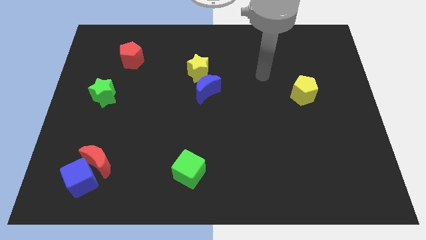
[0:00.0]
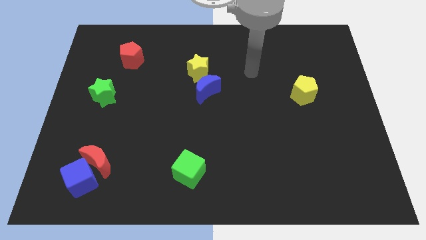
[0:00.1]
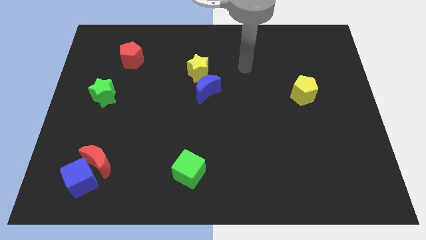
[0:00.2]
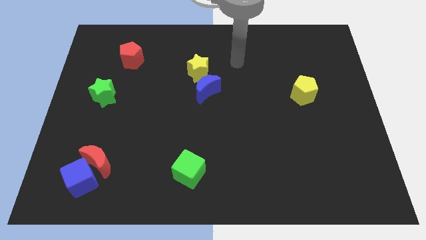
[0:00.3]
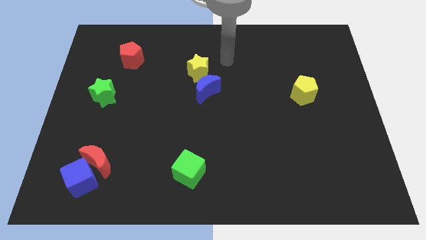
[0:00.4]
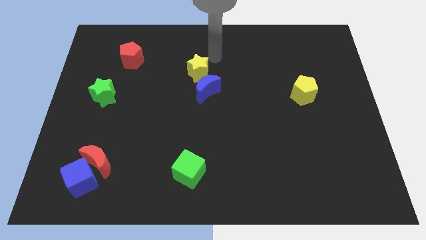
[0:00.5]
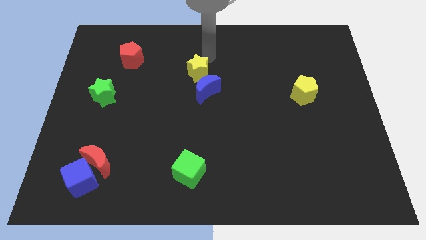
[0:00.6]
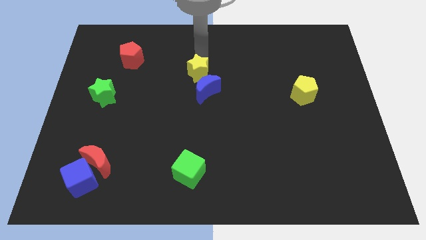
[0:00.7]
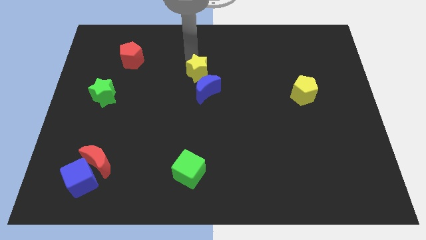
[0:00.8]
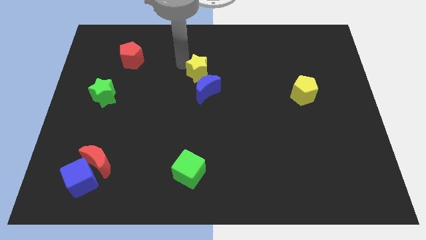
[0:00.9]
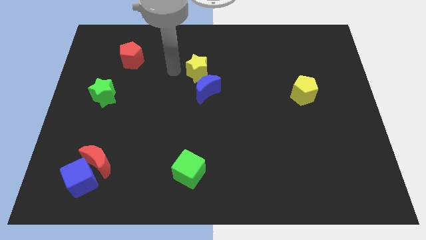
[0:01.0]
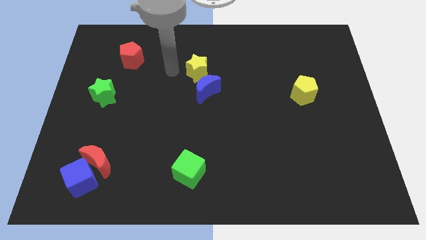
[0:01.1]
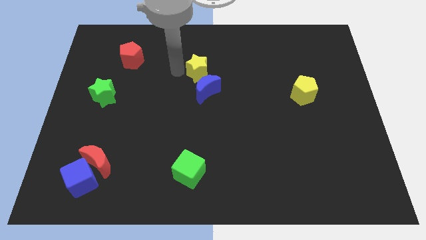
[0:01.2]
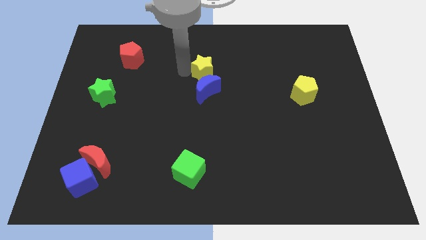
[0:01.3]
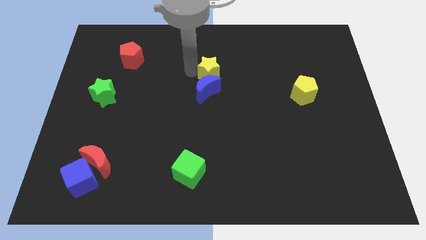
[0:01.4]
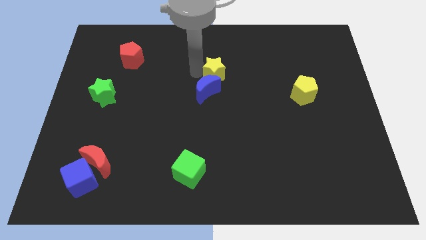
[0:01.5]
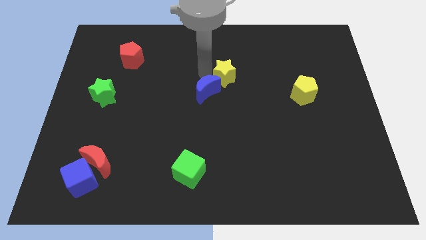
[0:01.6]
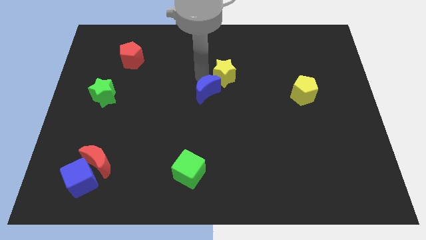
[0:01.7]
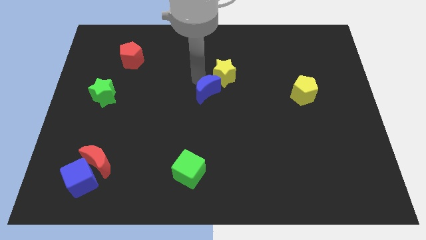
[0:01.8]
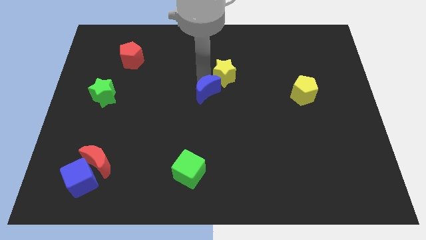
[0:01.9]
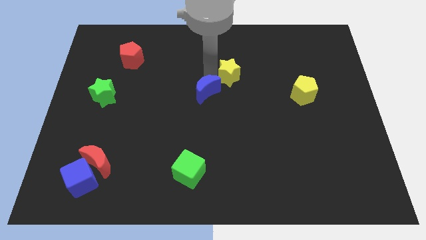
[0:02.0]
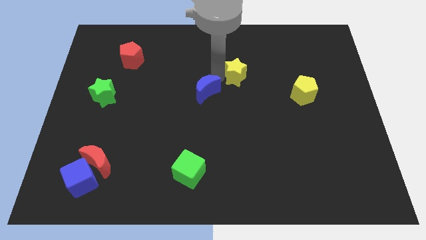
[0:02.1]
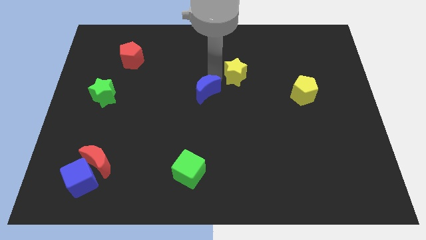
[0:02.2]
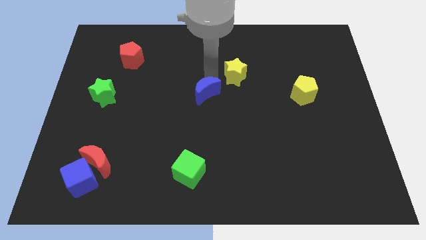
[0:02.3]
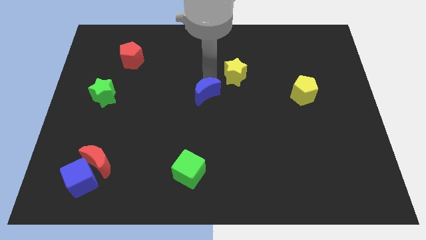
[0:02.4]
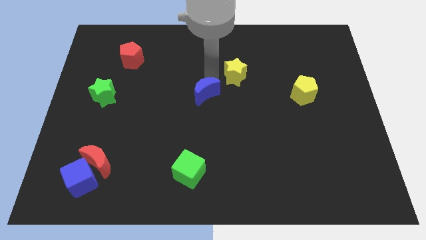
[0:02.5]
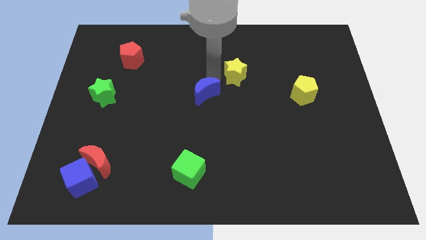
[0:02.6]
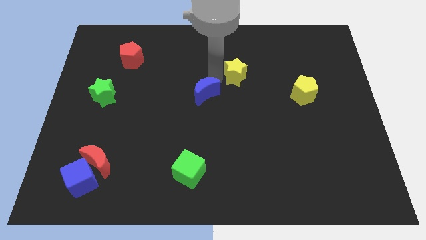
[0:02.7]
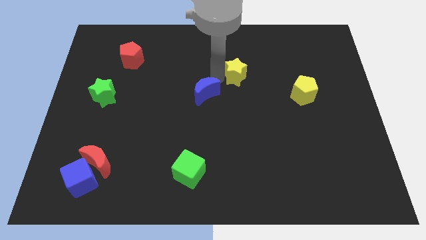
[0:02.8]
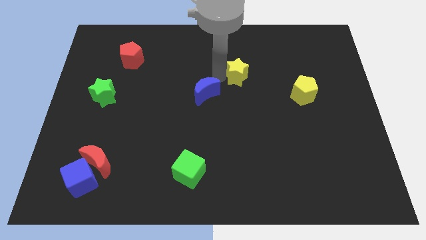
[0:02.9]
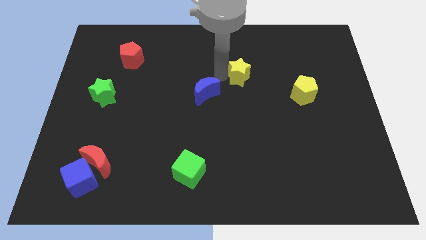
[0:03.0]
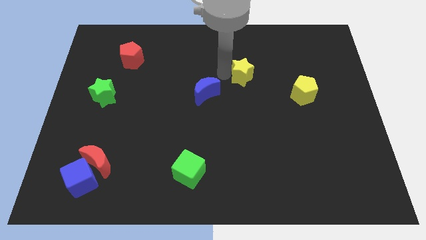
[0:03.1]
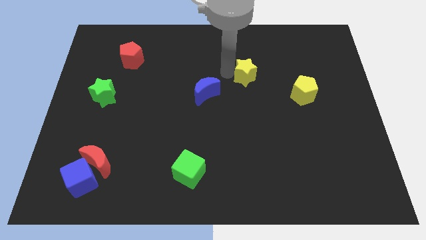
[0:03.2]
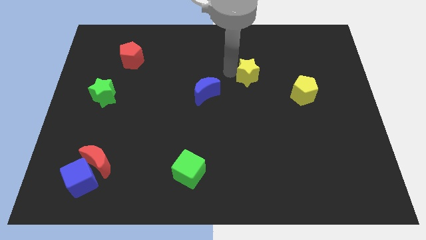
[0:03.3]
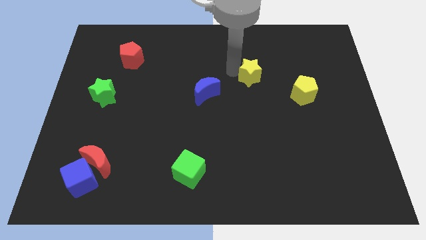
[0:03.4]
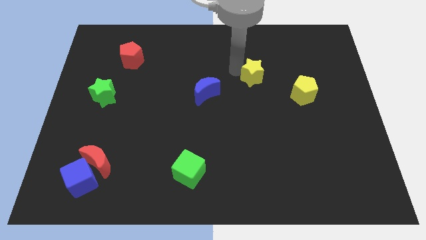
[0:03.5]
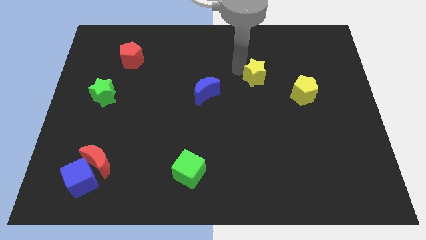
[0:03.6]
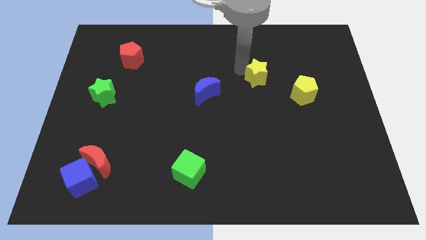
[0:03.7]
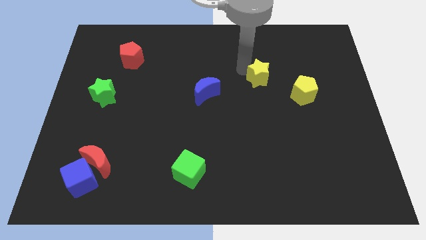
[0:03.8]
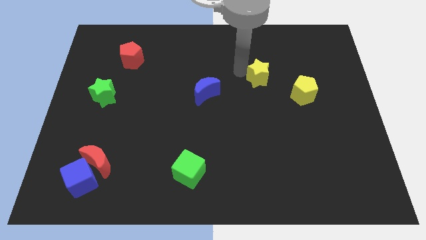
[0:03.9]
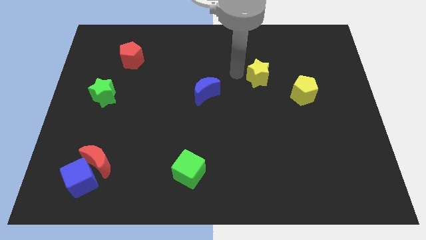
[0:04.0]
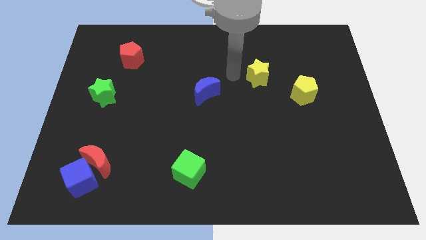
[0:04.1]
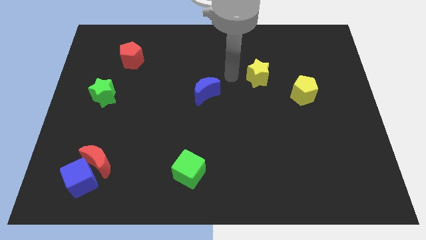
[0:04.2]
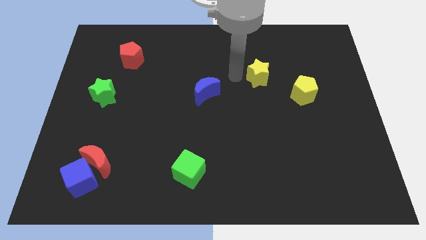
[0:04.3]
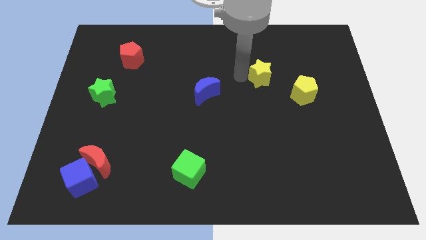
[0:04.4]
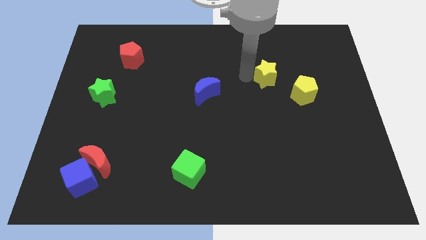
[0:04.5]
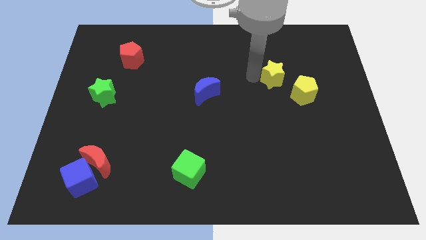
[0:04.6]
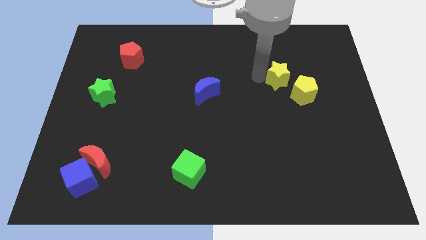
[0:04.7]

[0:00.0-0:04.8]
slide the yellow star to the right

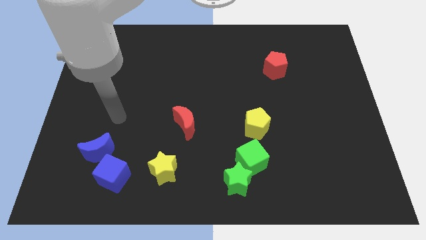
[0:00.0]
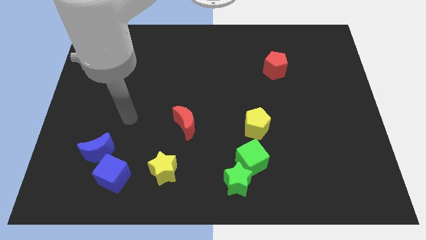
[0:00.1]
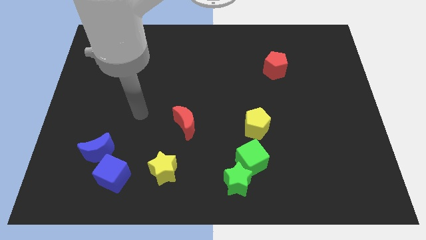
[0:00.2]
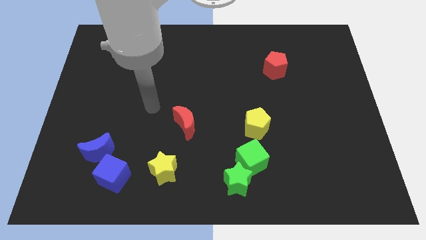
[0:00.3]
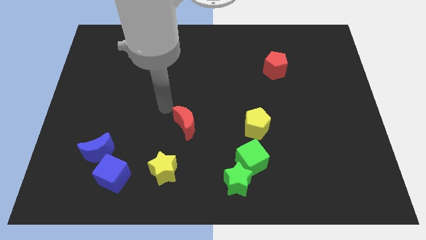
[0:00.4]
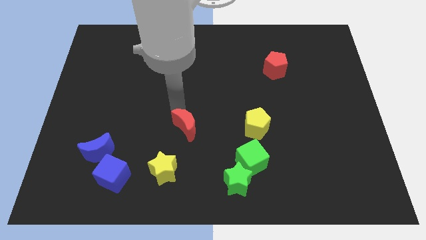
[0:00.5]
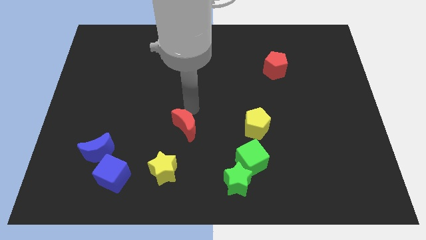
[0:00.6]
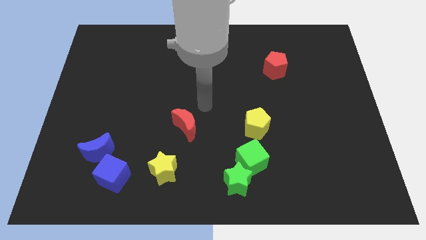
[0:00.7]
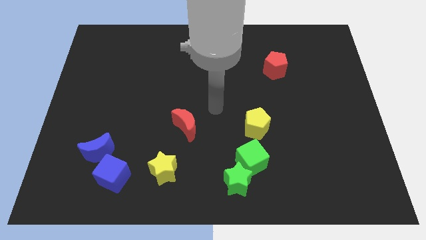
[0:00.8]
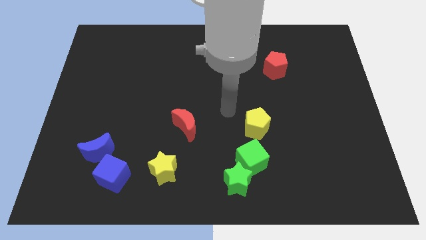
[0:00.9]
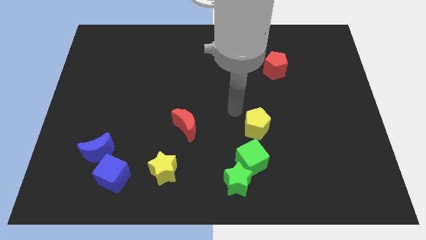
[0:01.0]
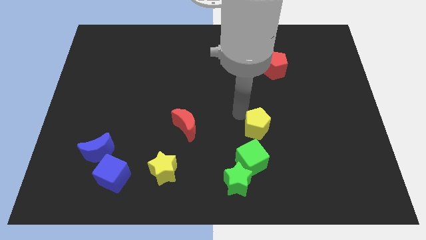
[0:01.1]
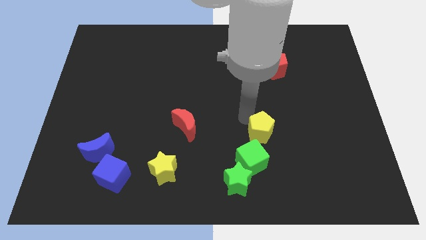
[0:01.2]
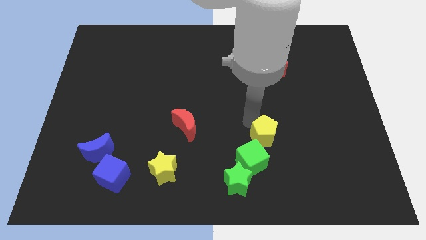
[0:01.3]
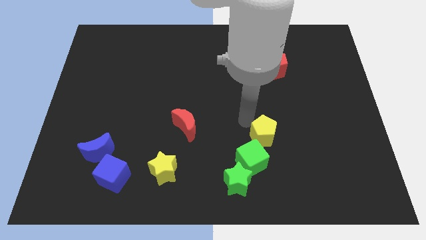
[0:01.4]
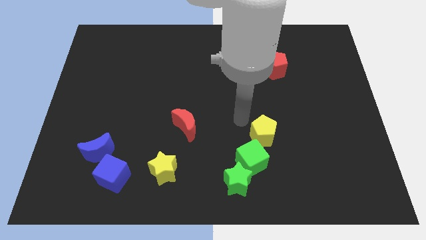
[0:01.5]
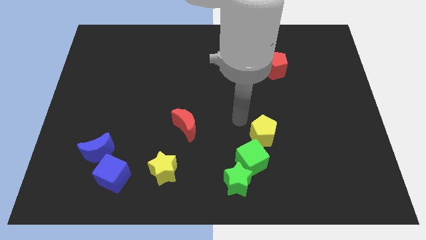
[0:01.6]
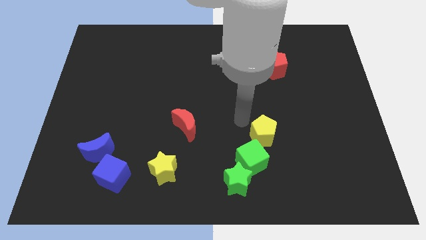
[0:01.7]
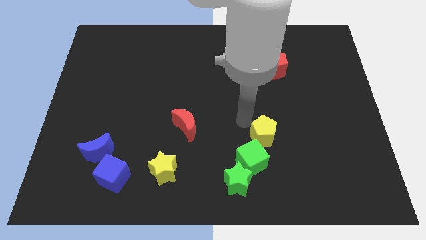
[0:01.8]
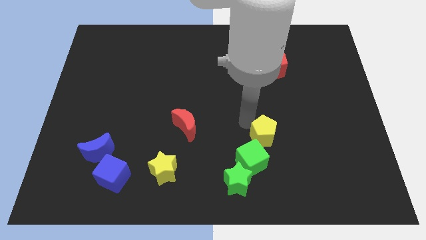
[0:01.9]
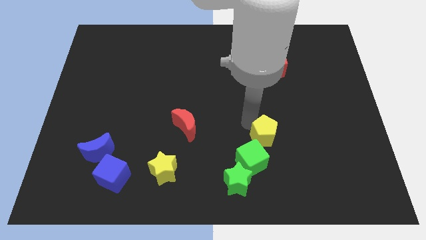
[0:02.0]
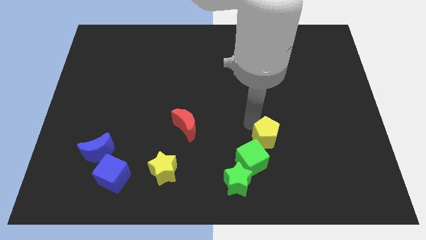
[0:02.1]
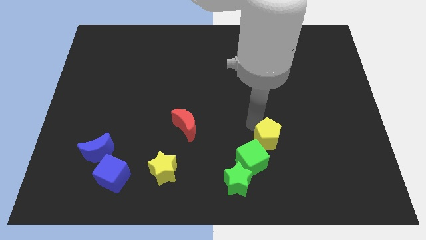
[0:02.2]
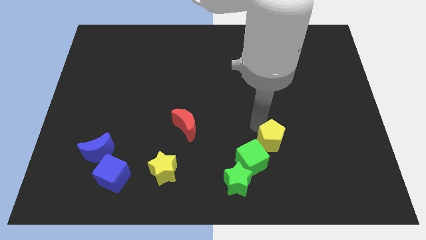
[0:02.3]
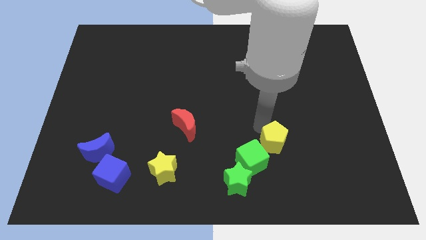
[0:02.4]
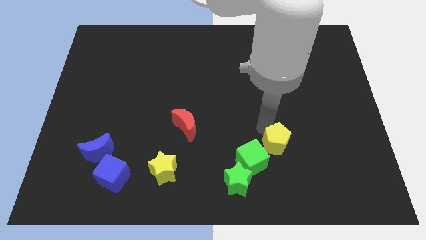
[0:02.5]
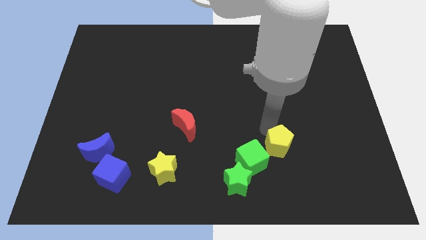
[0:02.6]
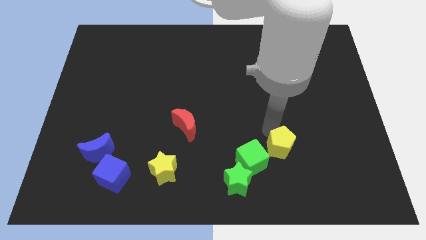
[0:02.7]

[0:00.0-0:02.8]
push the yellow pentagon down and to the right a bit

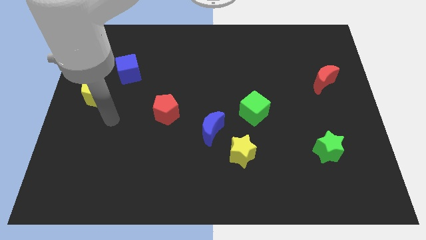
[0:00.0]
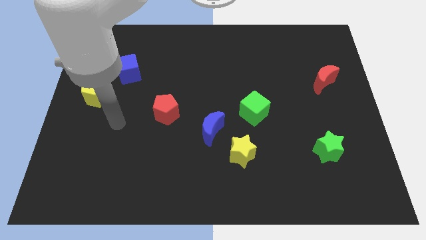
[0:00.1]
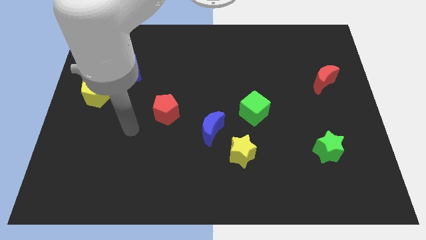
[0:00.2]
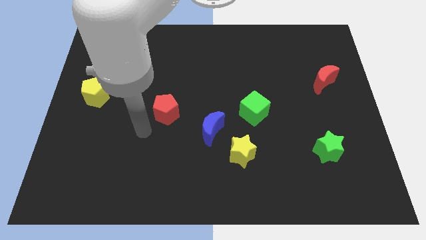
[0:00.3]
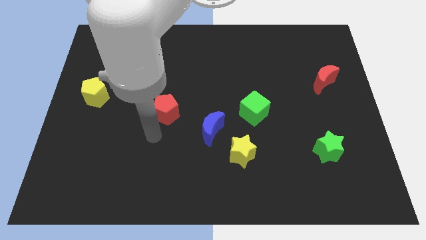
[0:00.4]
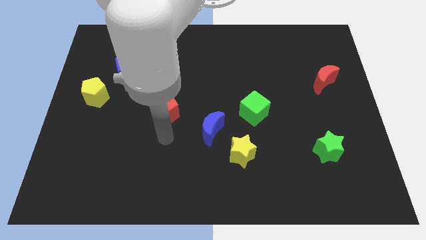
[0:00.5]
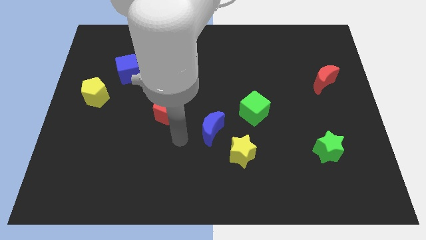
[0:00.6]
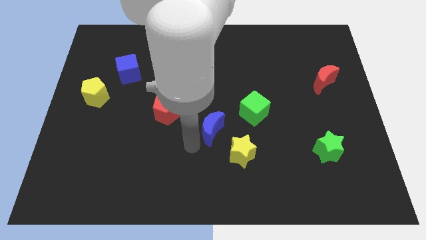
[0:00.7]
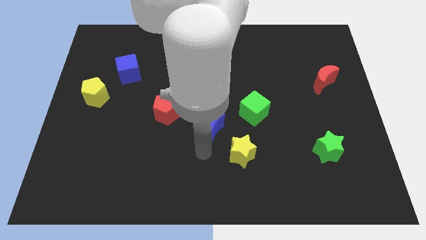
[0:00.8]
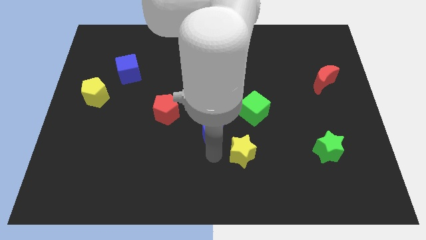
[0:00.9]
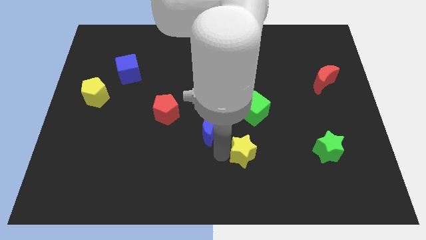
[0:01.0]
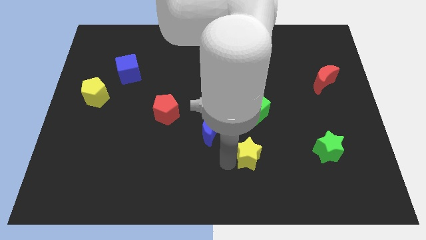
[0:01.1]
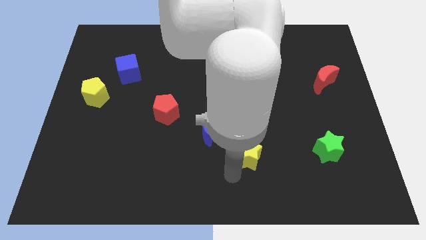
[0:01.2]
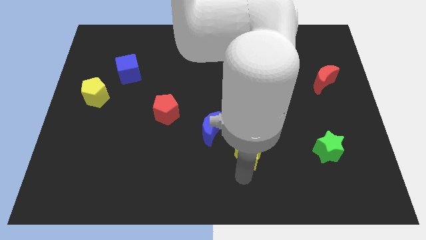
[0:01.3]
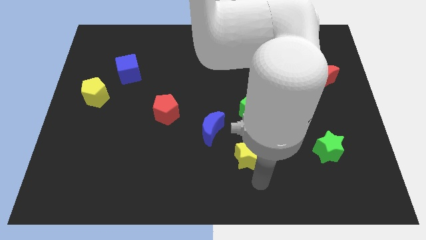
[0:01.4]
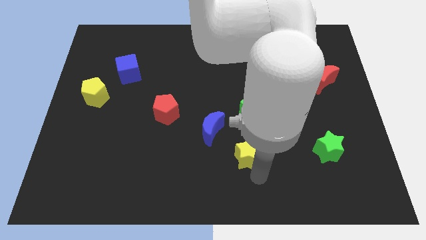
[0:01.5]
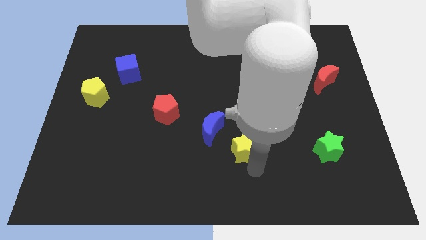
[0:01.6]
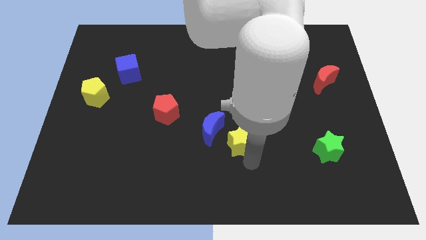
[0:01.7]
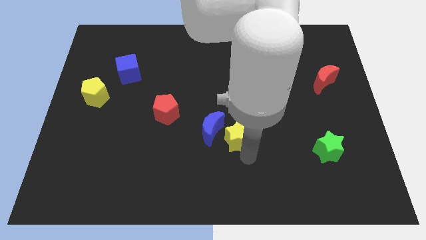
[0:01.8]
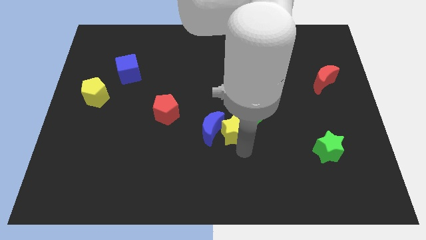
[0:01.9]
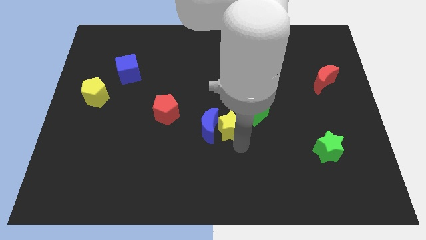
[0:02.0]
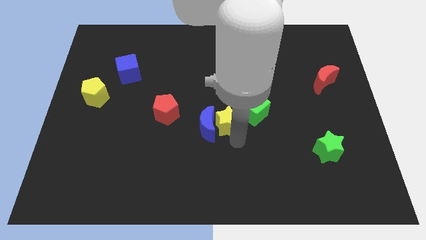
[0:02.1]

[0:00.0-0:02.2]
slightly move the yellow star diagonally upwards and to the left
